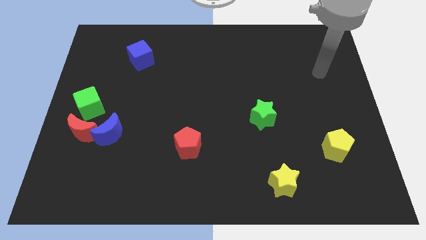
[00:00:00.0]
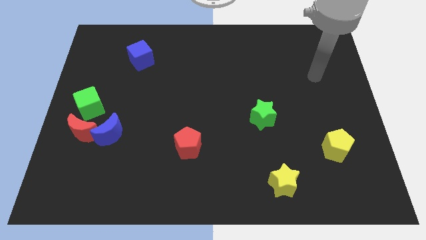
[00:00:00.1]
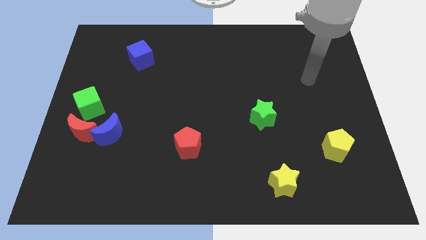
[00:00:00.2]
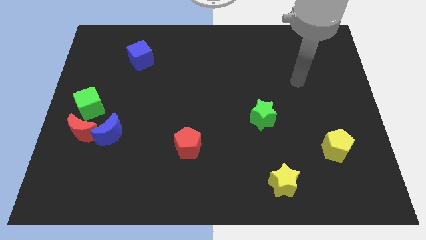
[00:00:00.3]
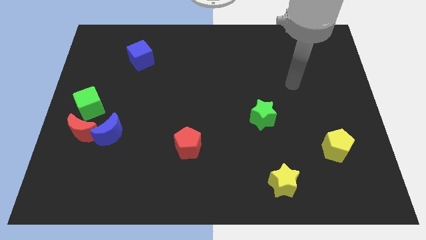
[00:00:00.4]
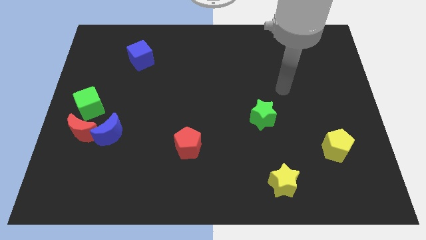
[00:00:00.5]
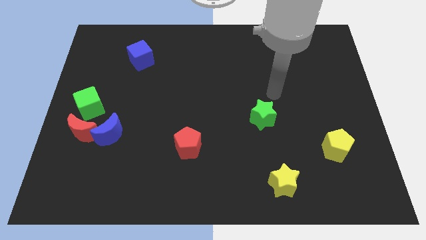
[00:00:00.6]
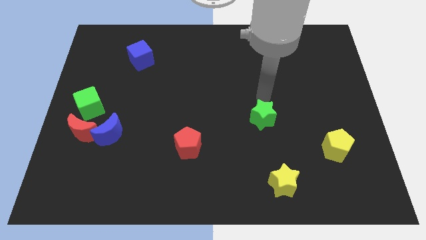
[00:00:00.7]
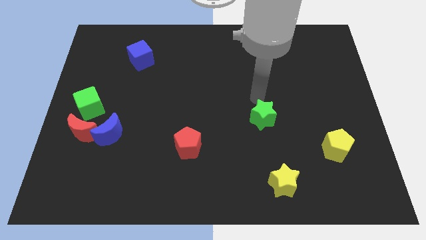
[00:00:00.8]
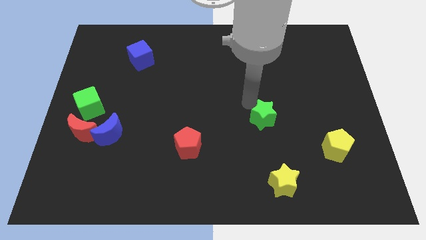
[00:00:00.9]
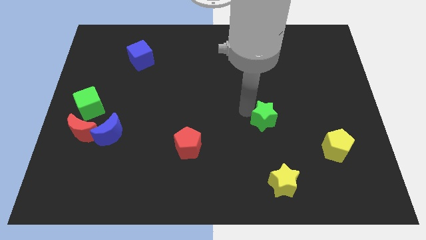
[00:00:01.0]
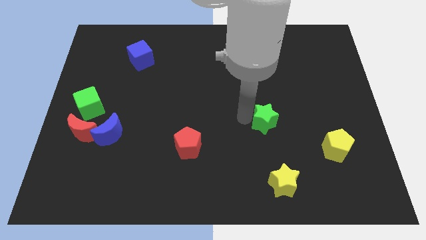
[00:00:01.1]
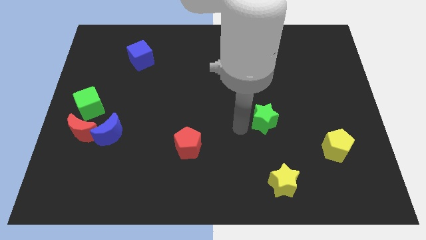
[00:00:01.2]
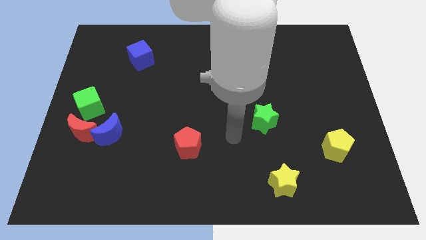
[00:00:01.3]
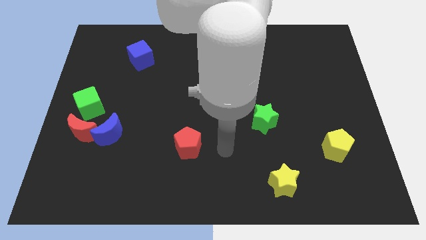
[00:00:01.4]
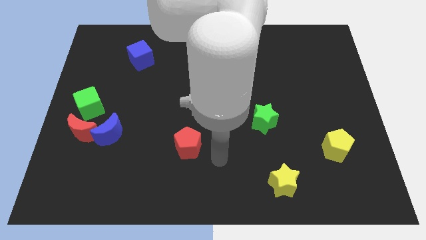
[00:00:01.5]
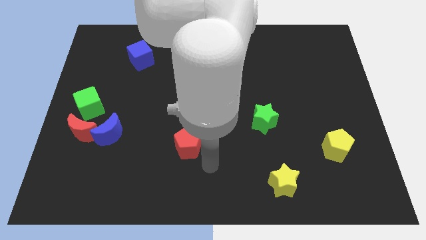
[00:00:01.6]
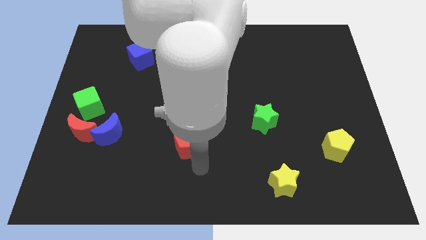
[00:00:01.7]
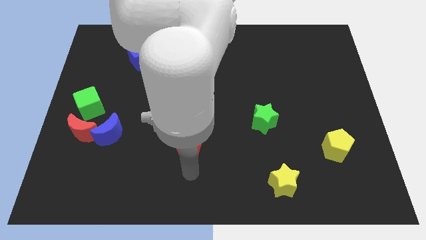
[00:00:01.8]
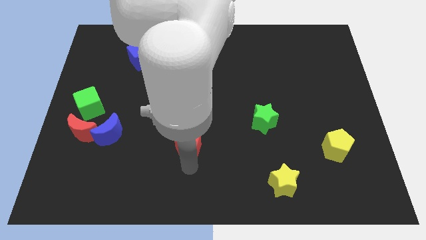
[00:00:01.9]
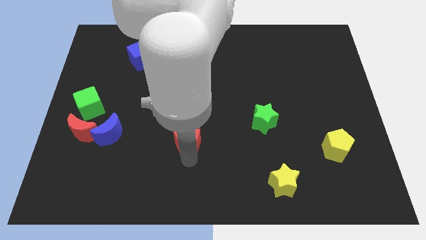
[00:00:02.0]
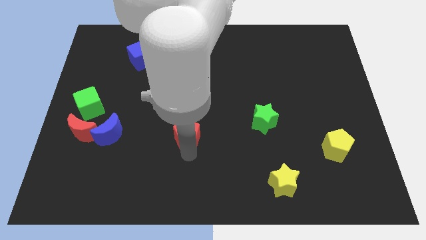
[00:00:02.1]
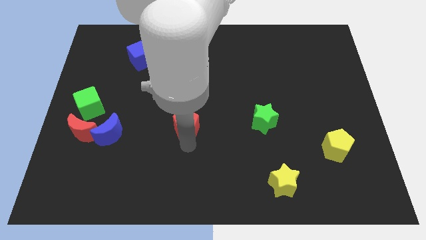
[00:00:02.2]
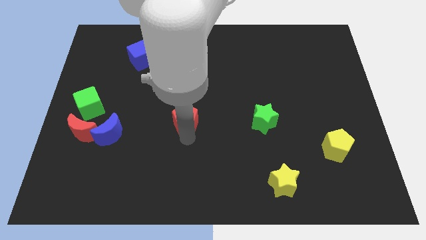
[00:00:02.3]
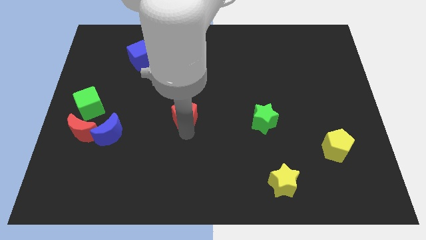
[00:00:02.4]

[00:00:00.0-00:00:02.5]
slightly push the red pentagon upwards

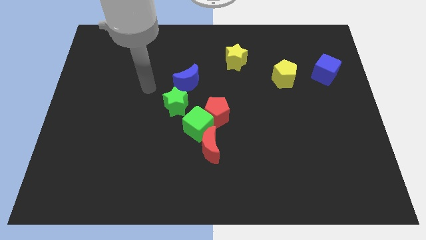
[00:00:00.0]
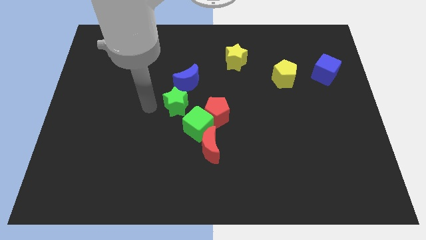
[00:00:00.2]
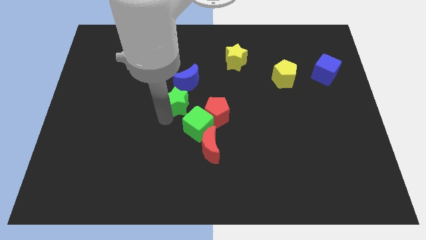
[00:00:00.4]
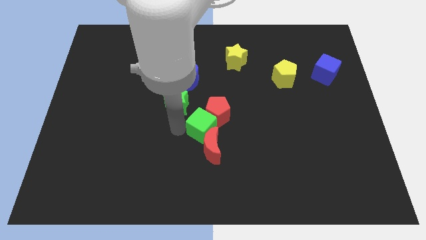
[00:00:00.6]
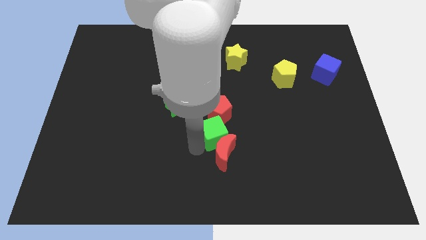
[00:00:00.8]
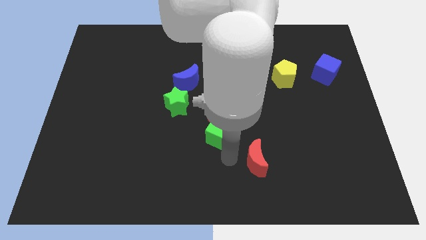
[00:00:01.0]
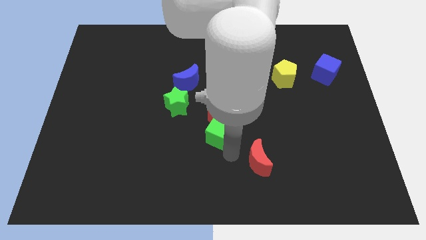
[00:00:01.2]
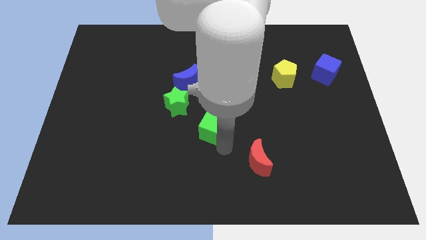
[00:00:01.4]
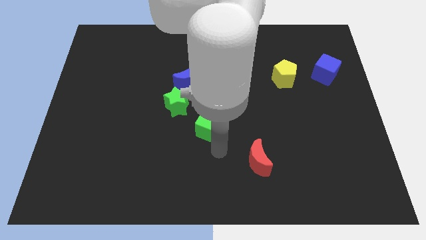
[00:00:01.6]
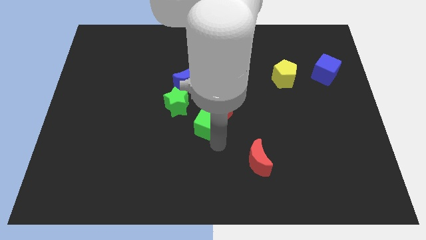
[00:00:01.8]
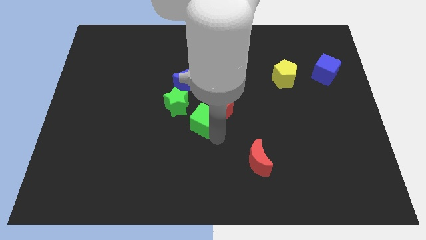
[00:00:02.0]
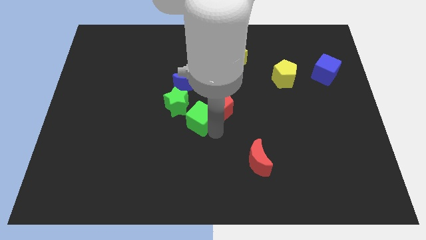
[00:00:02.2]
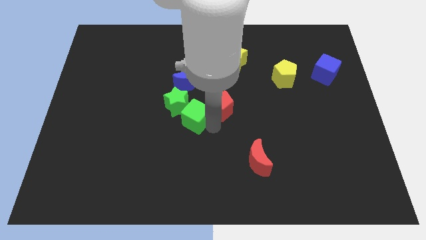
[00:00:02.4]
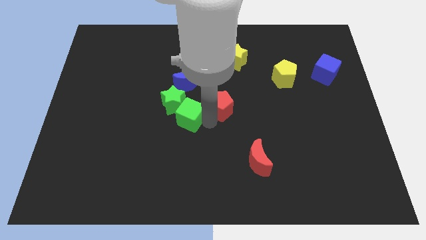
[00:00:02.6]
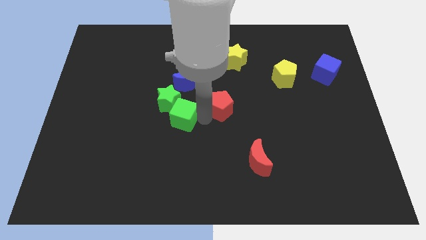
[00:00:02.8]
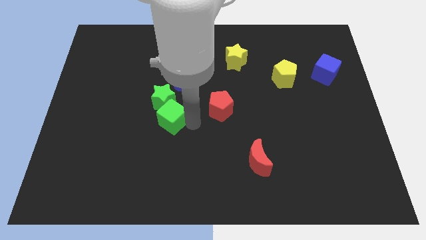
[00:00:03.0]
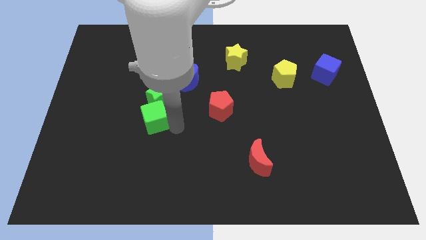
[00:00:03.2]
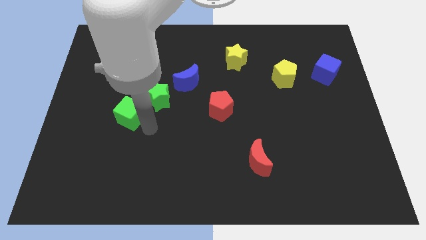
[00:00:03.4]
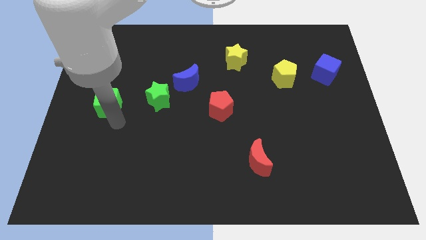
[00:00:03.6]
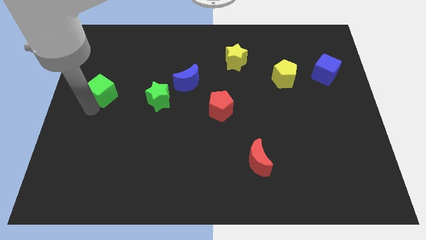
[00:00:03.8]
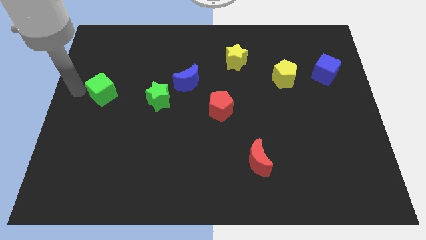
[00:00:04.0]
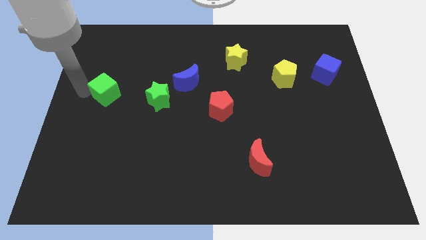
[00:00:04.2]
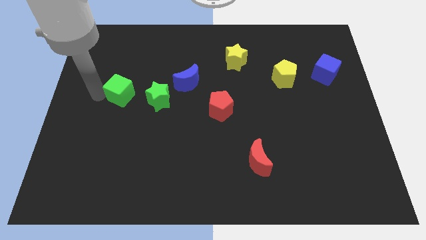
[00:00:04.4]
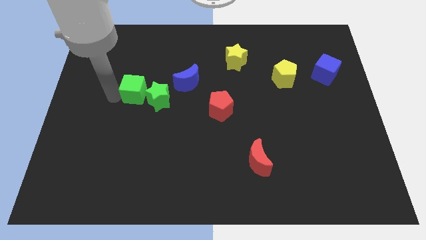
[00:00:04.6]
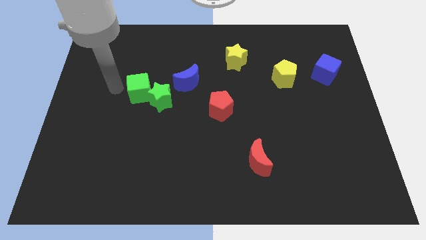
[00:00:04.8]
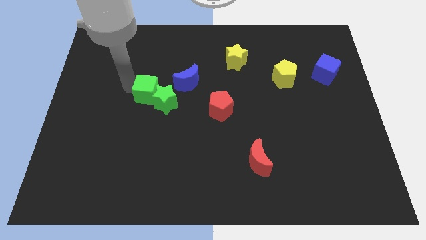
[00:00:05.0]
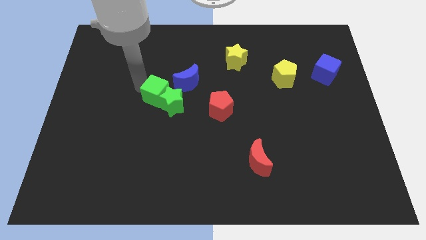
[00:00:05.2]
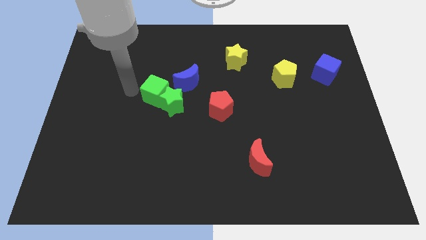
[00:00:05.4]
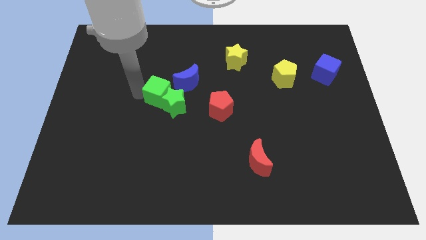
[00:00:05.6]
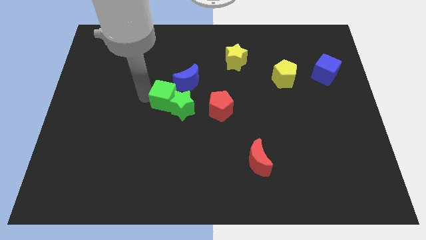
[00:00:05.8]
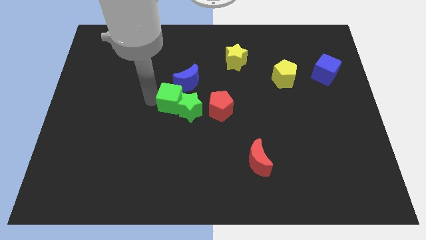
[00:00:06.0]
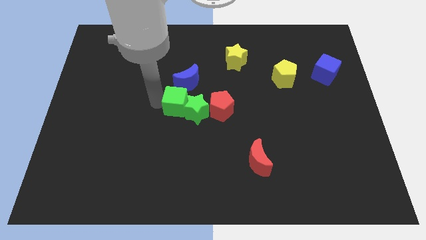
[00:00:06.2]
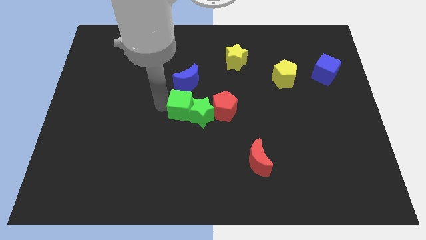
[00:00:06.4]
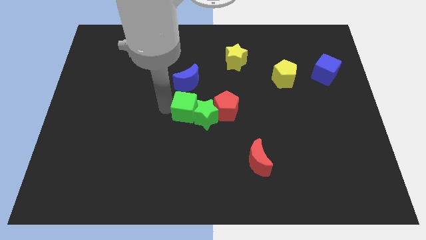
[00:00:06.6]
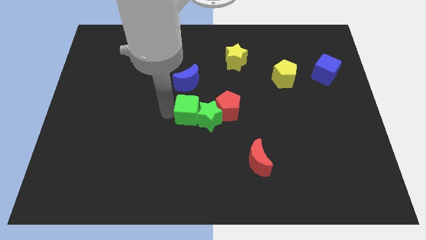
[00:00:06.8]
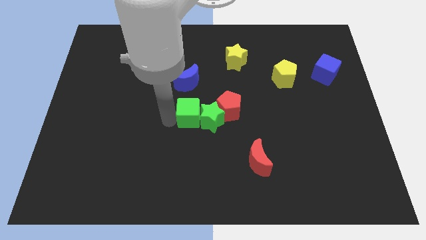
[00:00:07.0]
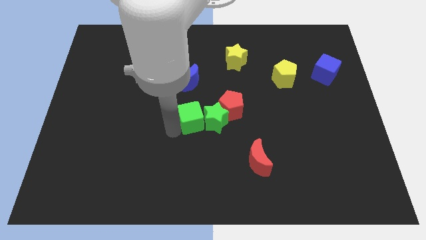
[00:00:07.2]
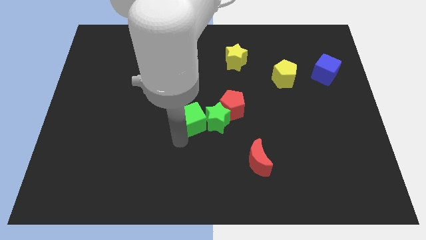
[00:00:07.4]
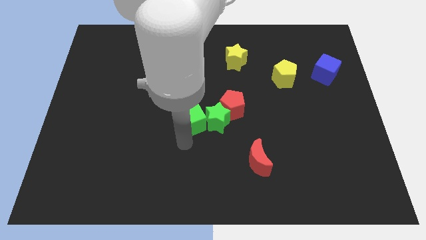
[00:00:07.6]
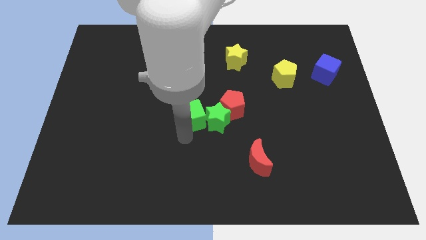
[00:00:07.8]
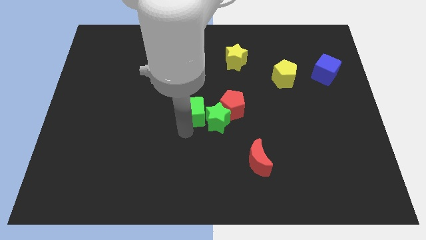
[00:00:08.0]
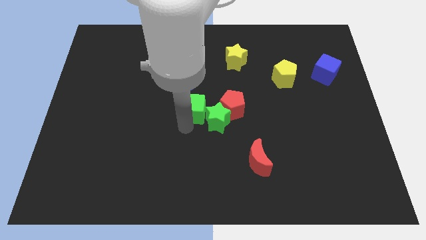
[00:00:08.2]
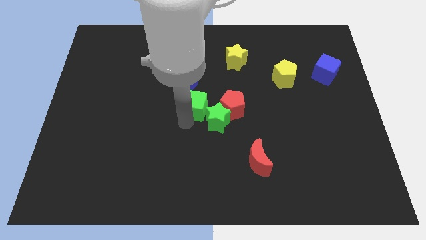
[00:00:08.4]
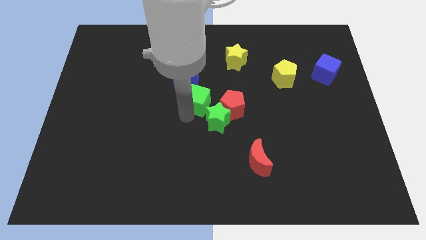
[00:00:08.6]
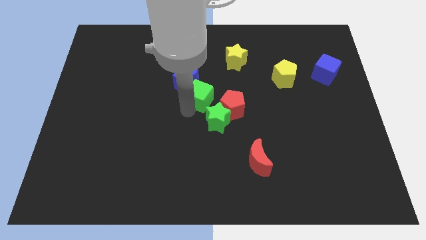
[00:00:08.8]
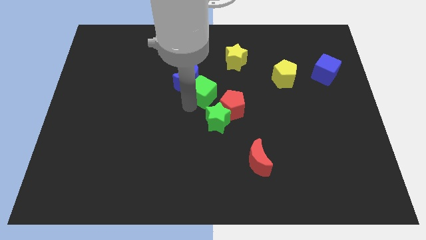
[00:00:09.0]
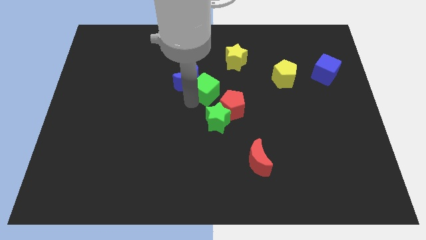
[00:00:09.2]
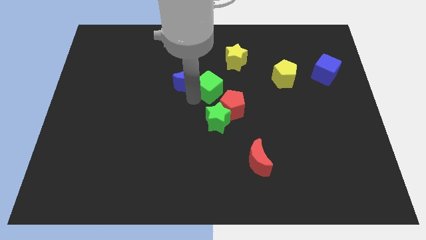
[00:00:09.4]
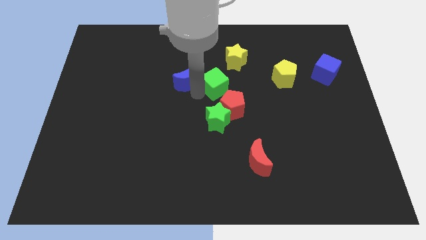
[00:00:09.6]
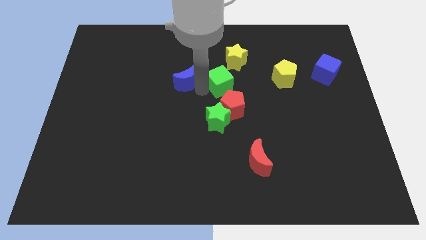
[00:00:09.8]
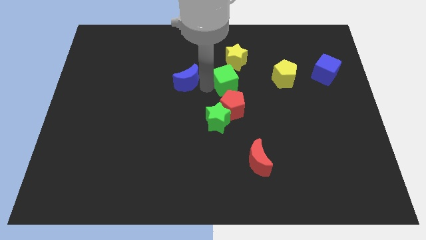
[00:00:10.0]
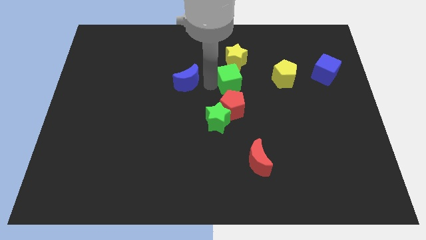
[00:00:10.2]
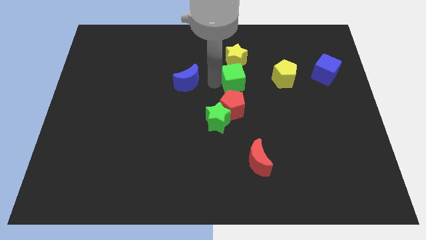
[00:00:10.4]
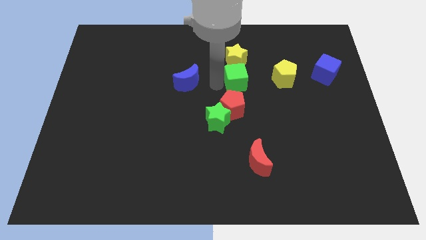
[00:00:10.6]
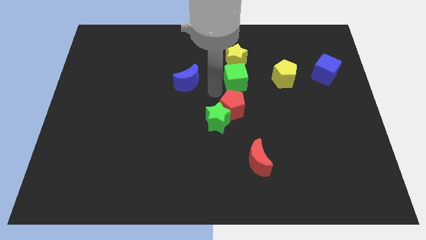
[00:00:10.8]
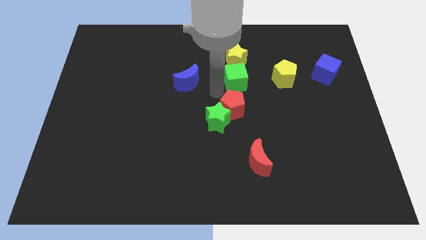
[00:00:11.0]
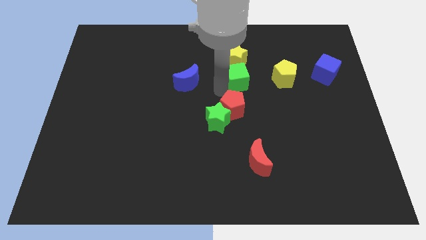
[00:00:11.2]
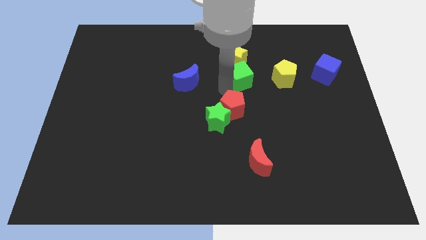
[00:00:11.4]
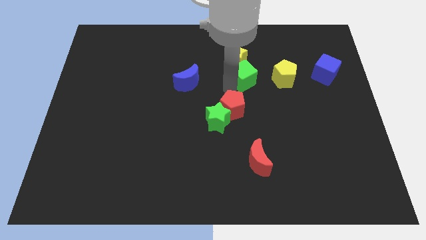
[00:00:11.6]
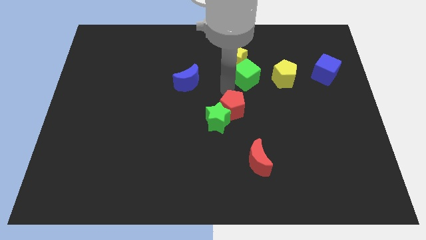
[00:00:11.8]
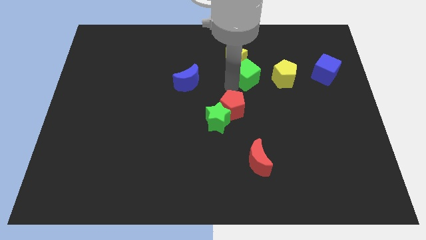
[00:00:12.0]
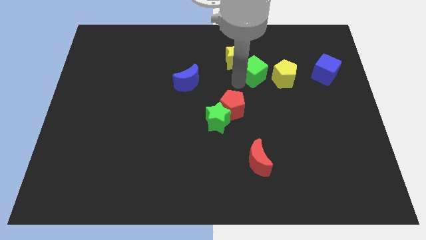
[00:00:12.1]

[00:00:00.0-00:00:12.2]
slide the green cube upwards and right
